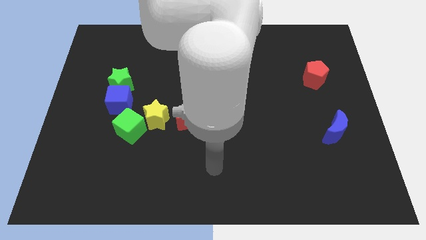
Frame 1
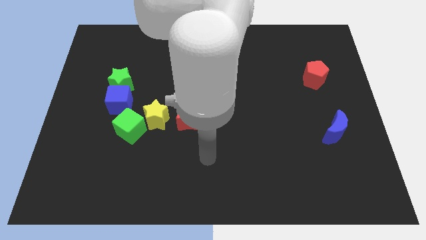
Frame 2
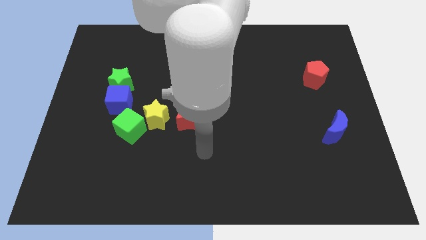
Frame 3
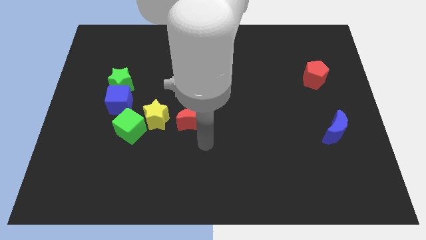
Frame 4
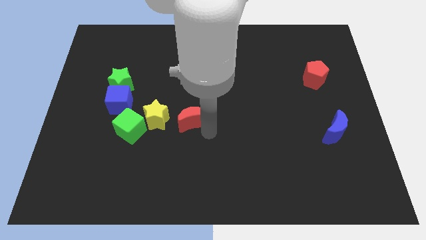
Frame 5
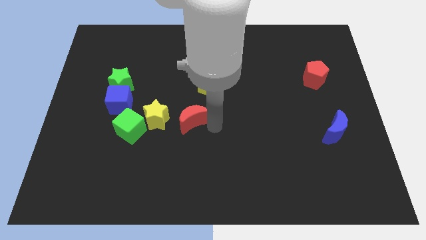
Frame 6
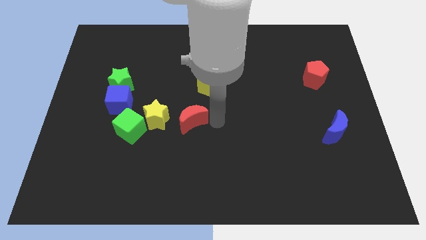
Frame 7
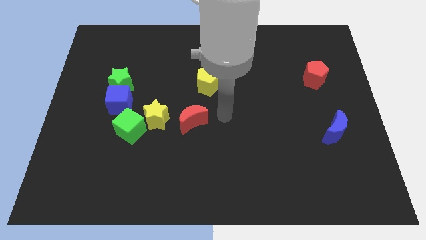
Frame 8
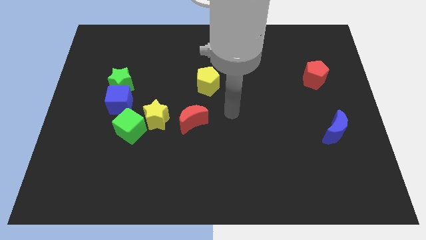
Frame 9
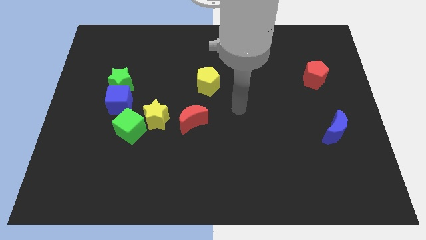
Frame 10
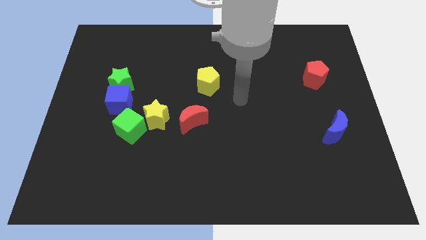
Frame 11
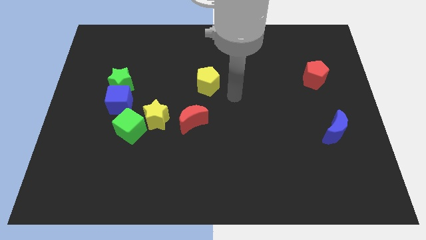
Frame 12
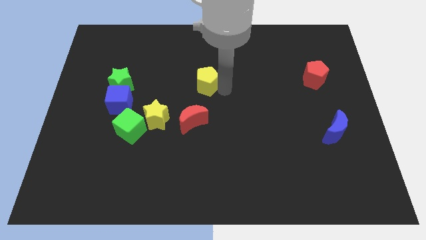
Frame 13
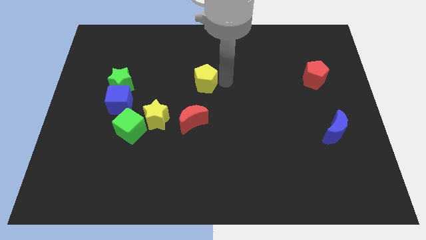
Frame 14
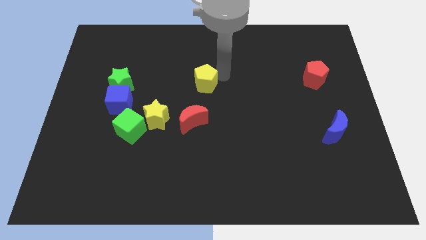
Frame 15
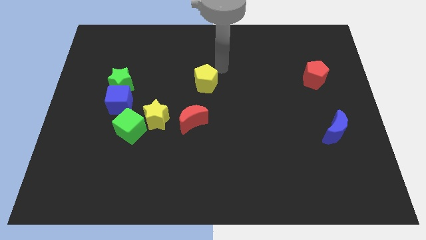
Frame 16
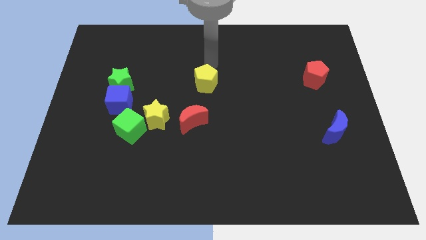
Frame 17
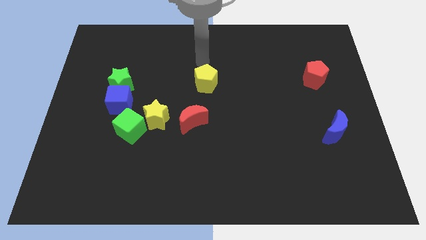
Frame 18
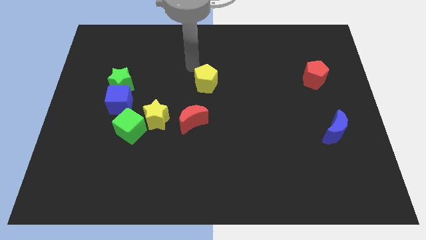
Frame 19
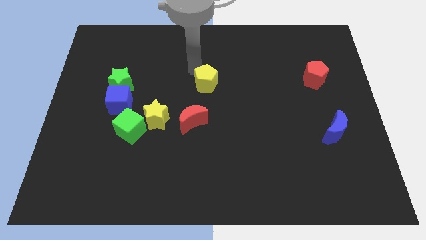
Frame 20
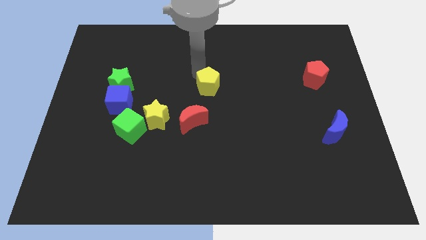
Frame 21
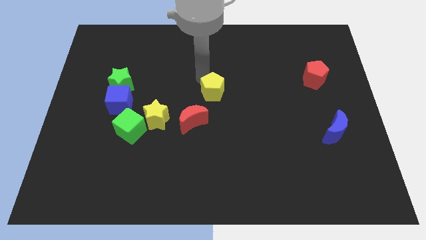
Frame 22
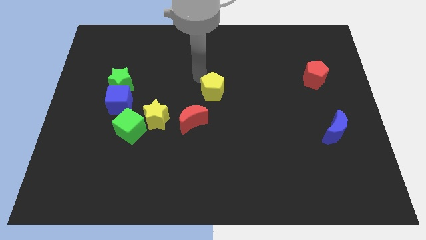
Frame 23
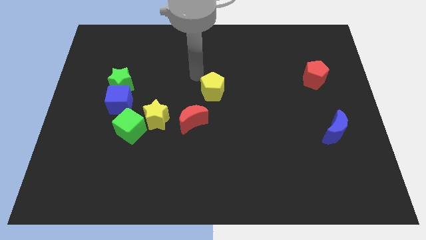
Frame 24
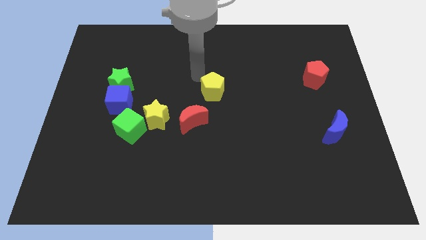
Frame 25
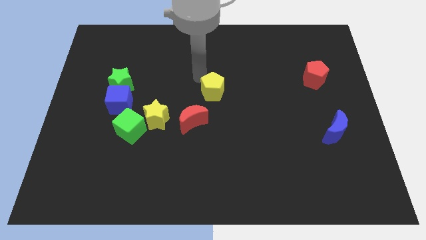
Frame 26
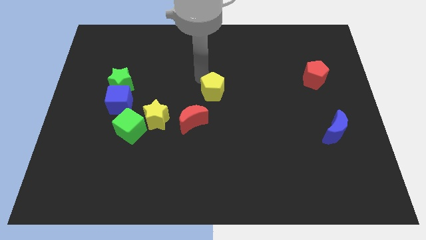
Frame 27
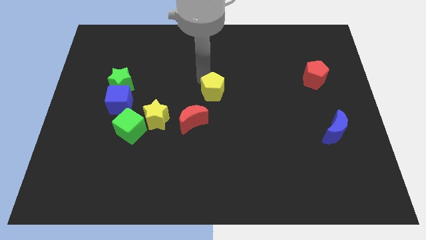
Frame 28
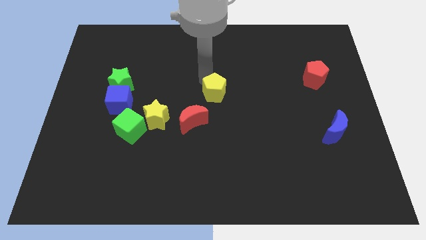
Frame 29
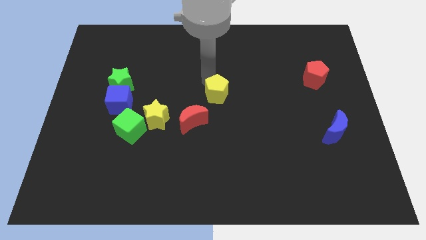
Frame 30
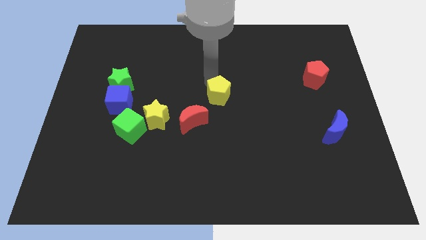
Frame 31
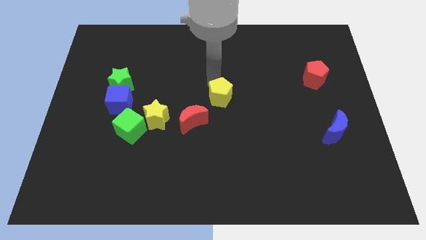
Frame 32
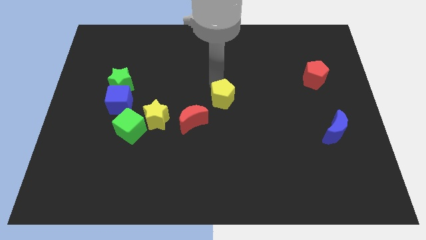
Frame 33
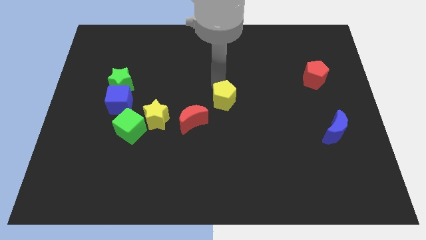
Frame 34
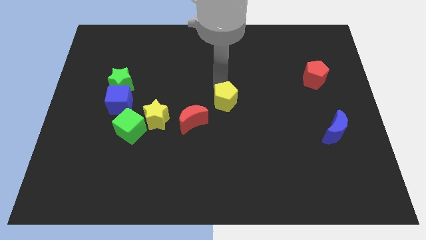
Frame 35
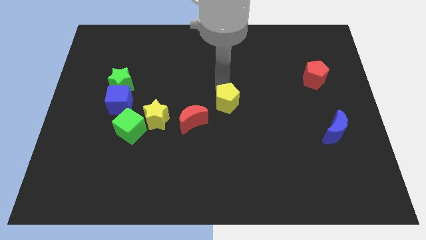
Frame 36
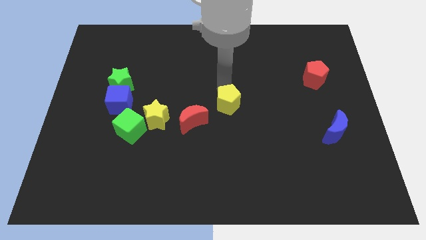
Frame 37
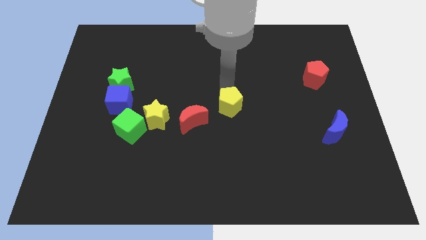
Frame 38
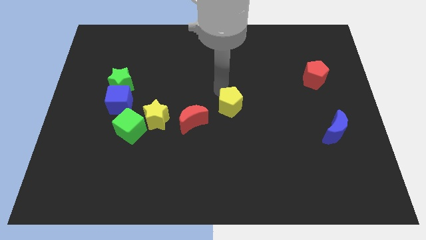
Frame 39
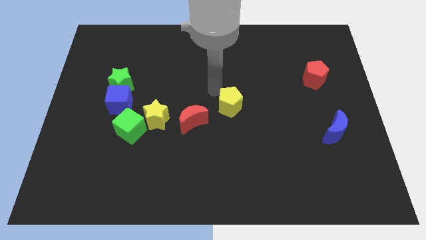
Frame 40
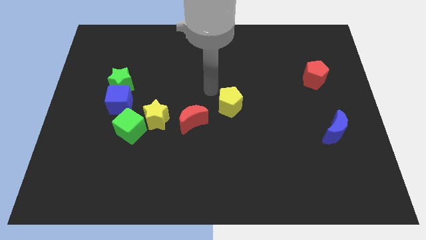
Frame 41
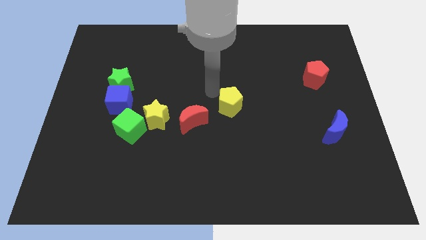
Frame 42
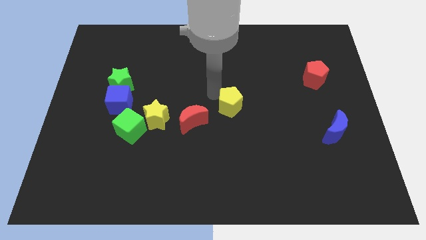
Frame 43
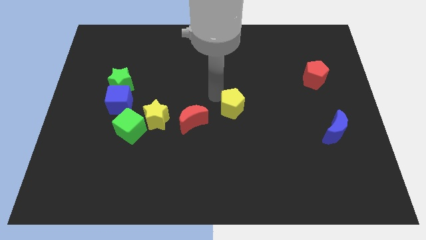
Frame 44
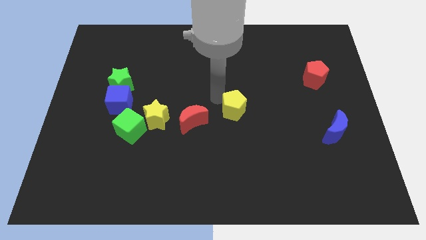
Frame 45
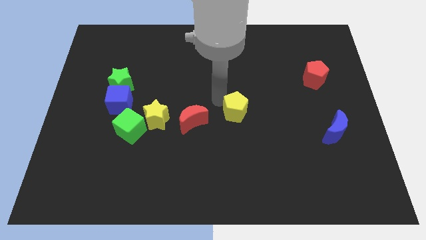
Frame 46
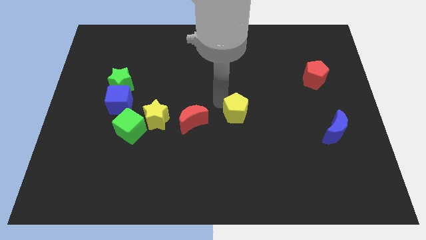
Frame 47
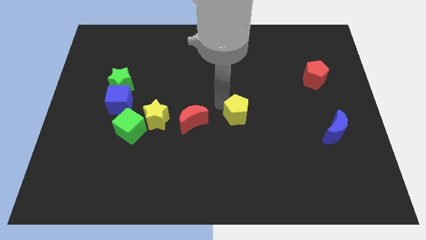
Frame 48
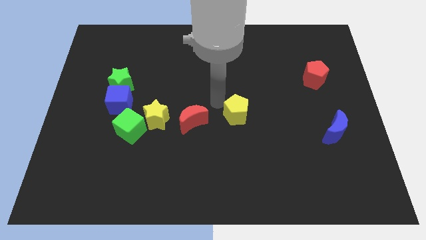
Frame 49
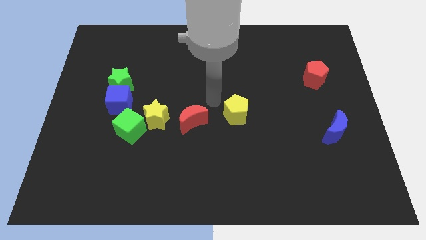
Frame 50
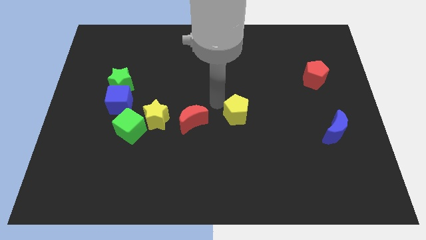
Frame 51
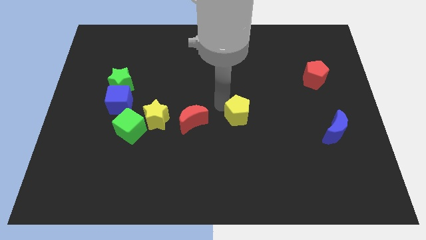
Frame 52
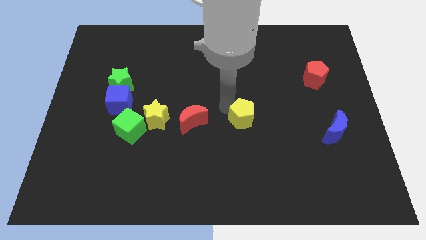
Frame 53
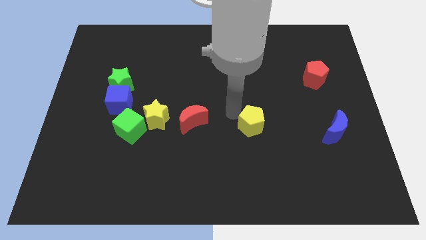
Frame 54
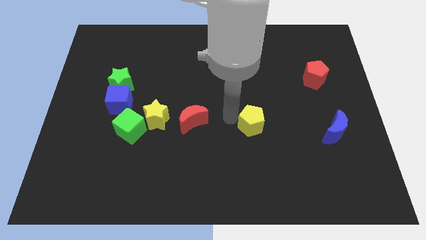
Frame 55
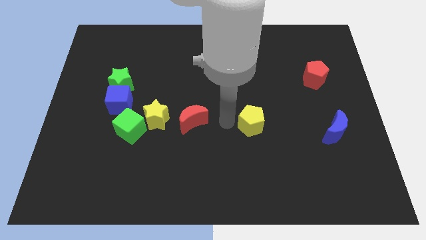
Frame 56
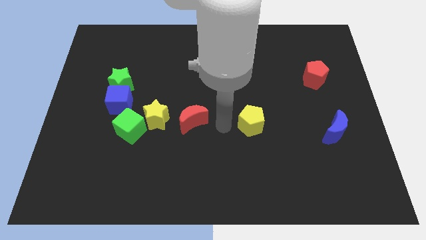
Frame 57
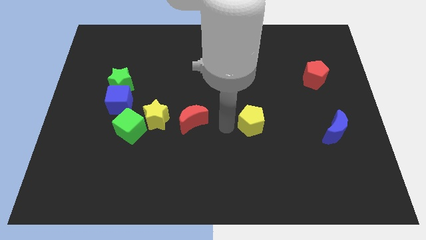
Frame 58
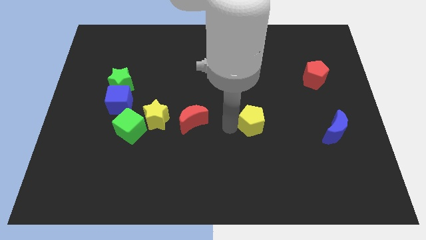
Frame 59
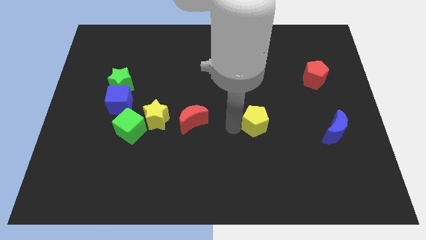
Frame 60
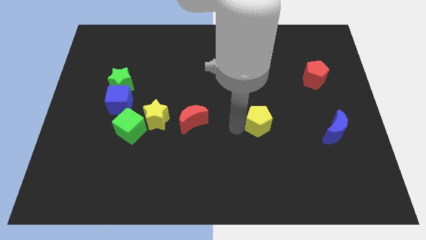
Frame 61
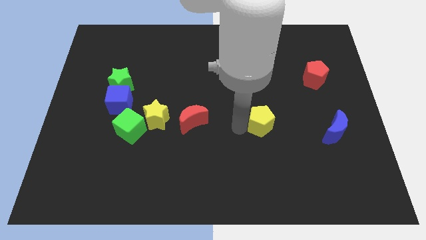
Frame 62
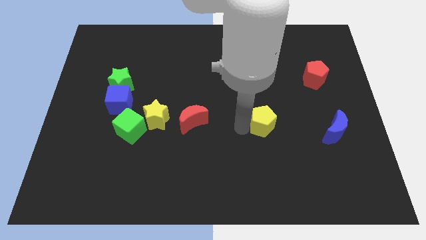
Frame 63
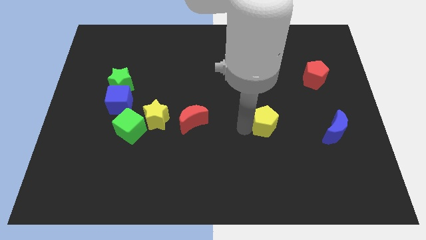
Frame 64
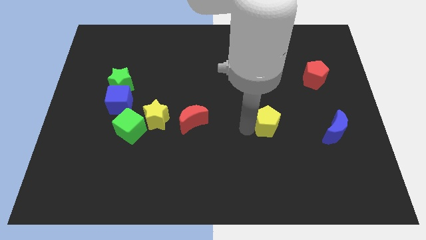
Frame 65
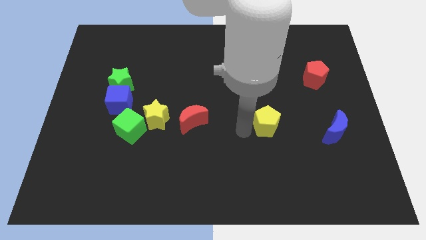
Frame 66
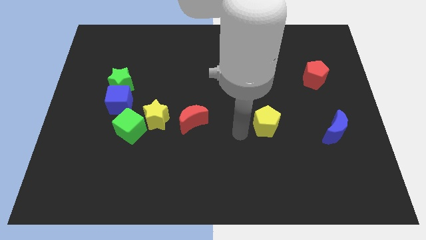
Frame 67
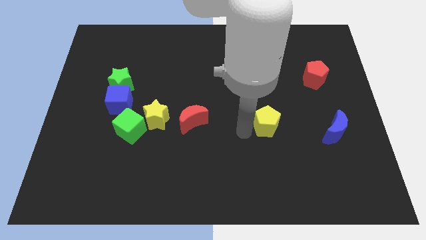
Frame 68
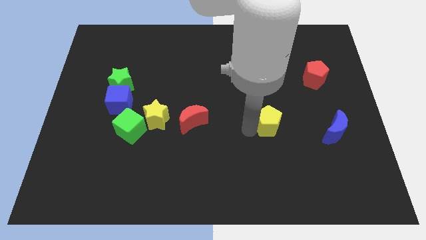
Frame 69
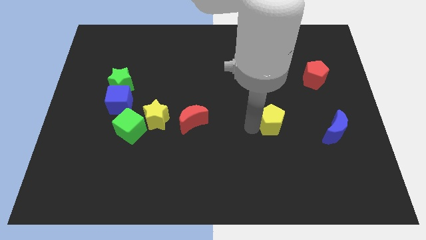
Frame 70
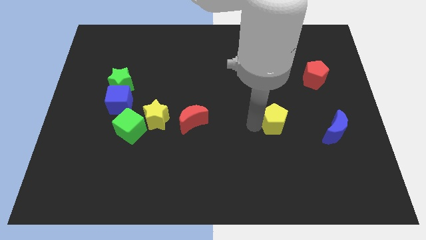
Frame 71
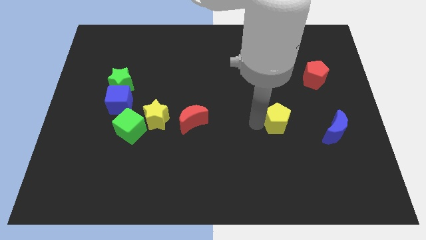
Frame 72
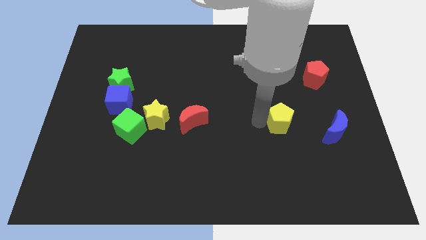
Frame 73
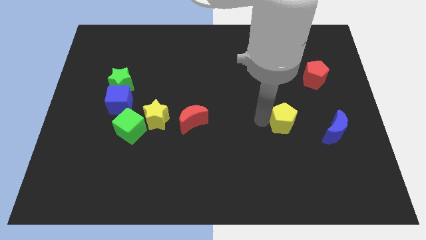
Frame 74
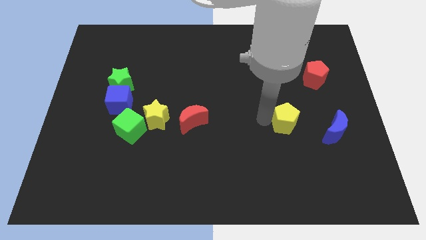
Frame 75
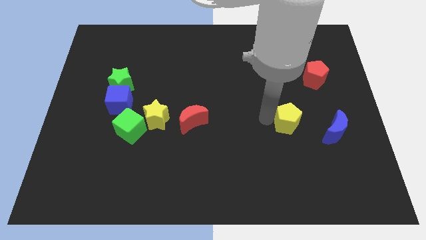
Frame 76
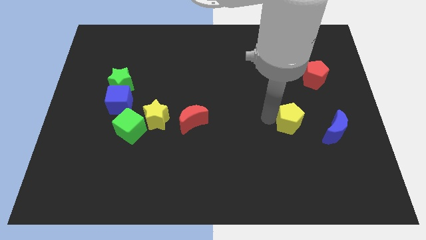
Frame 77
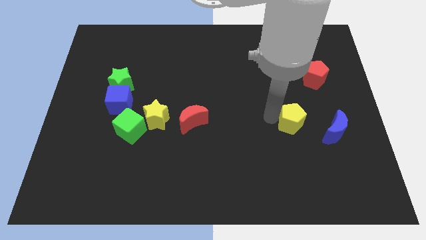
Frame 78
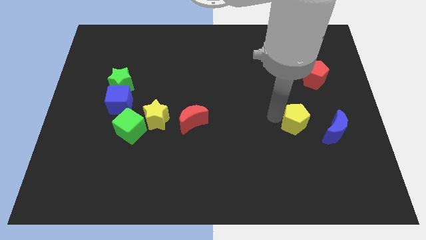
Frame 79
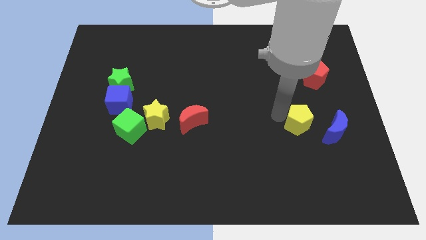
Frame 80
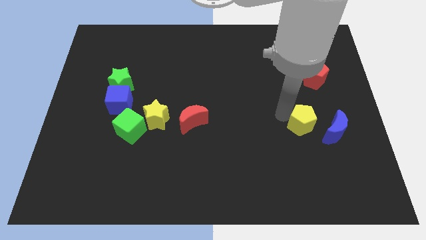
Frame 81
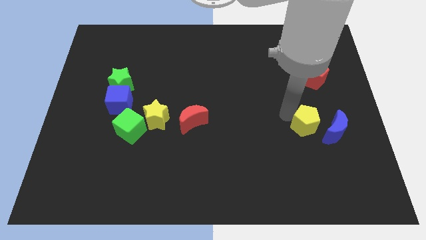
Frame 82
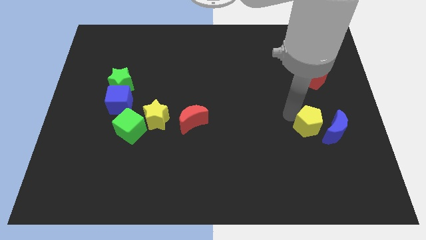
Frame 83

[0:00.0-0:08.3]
put the yellow pentagon to the blue moon
